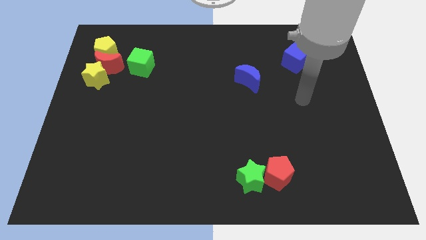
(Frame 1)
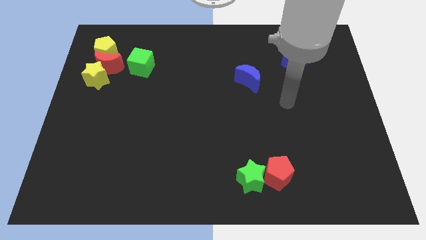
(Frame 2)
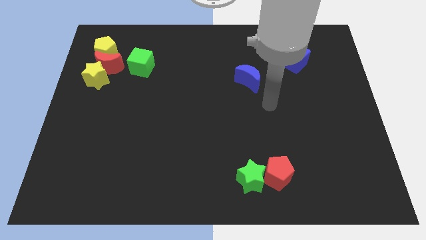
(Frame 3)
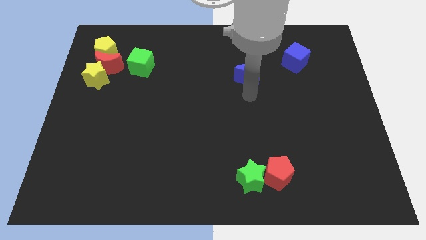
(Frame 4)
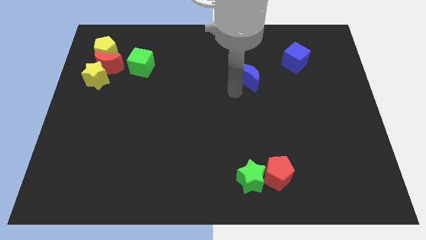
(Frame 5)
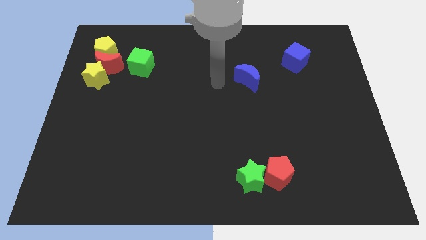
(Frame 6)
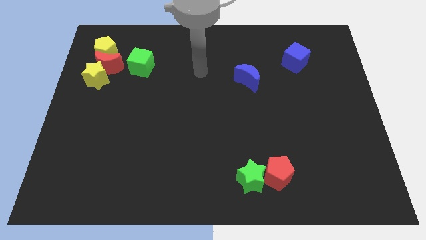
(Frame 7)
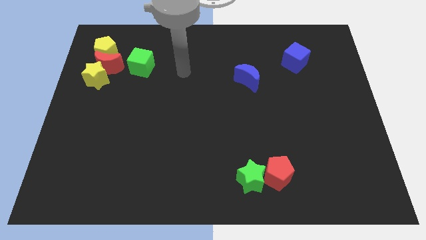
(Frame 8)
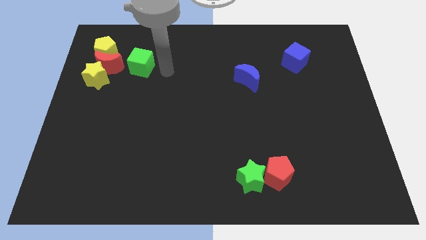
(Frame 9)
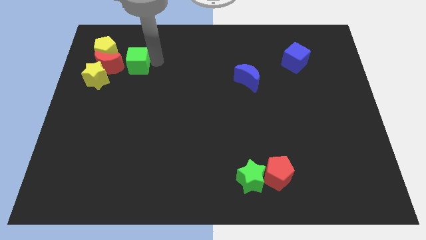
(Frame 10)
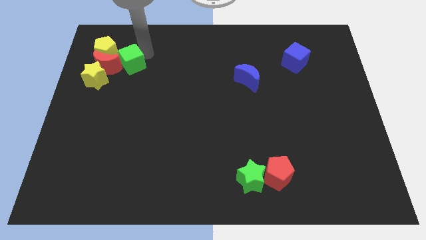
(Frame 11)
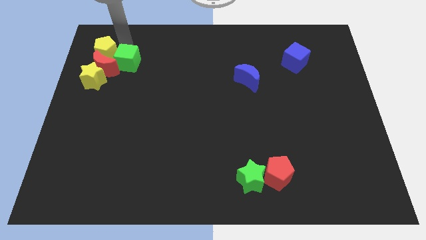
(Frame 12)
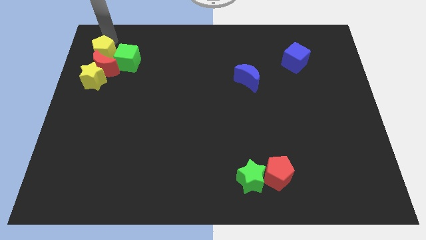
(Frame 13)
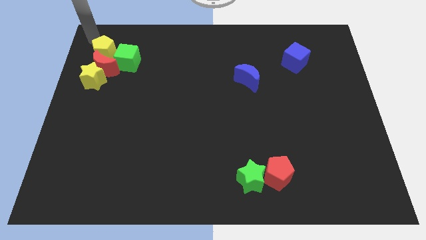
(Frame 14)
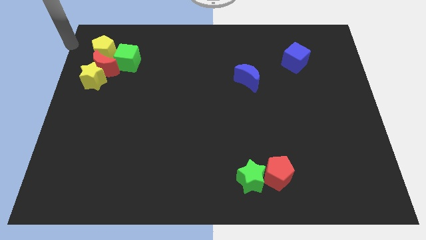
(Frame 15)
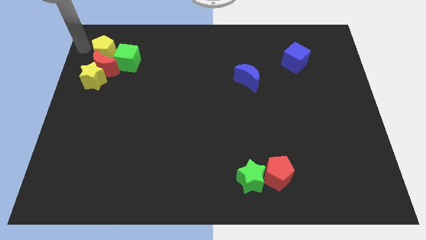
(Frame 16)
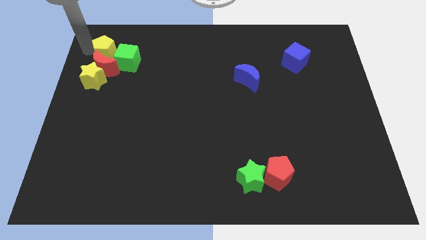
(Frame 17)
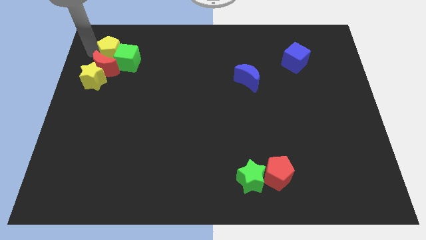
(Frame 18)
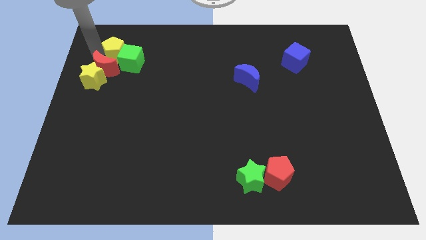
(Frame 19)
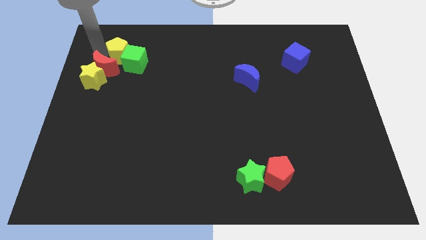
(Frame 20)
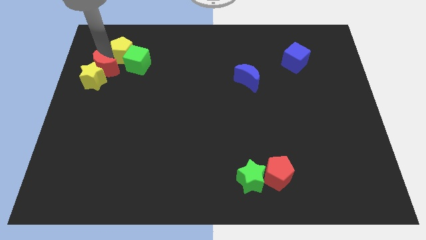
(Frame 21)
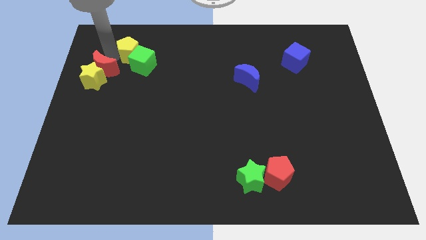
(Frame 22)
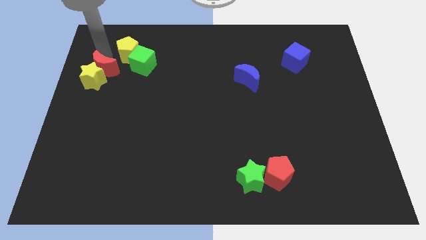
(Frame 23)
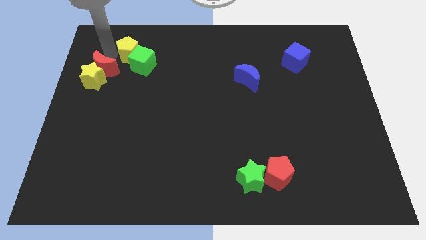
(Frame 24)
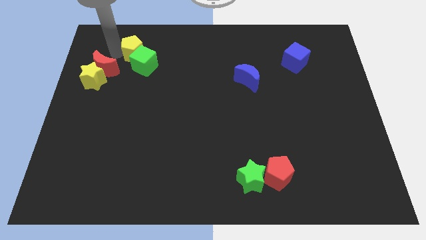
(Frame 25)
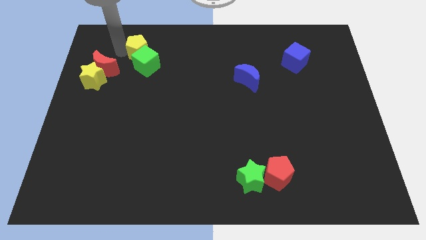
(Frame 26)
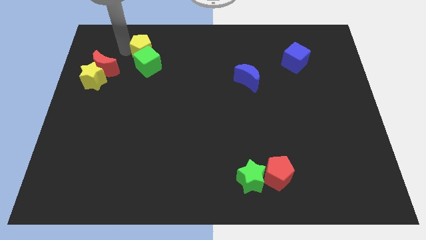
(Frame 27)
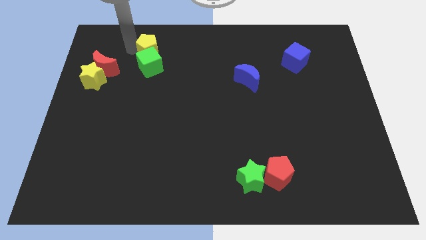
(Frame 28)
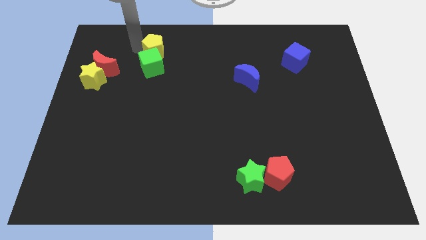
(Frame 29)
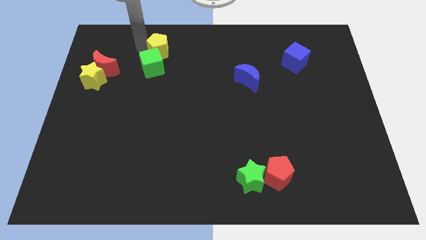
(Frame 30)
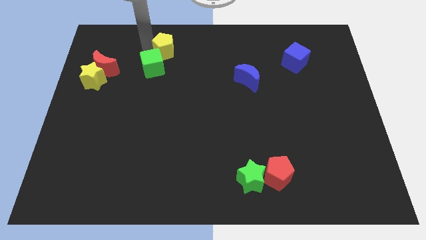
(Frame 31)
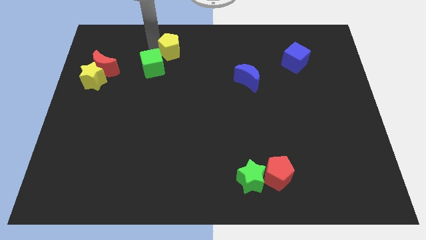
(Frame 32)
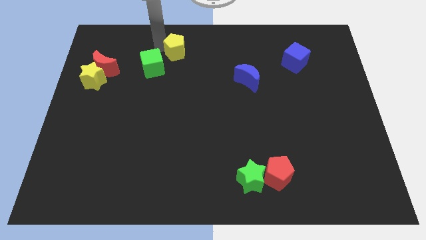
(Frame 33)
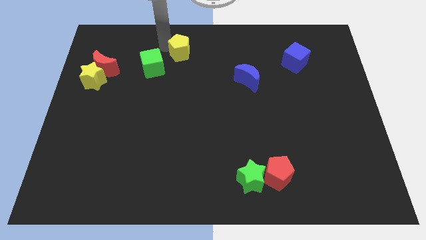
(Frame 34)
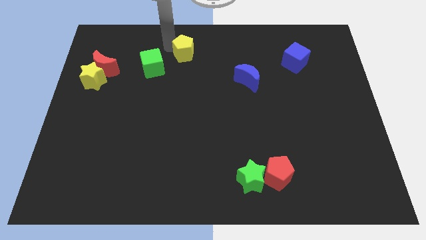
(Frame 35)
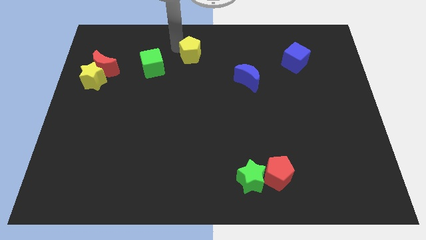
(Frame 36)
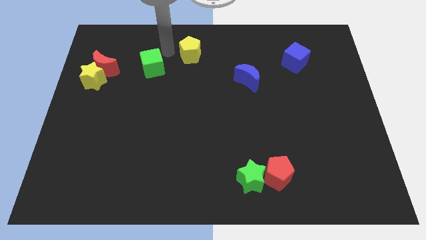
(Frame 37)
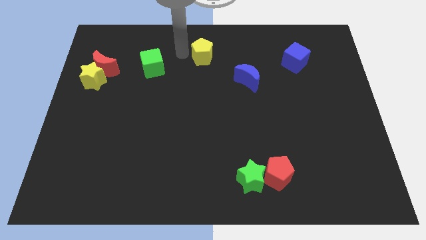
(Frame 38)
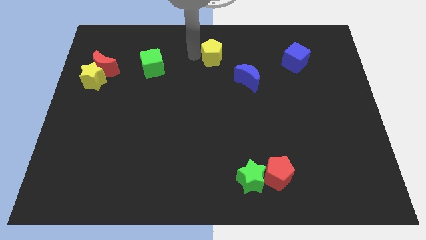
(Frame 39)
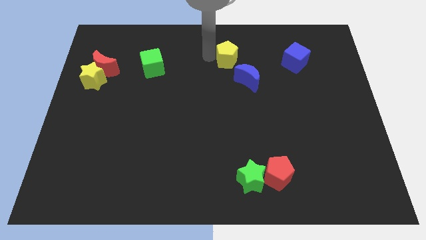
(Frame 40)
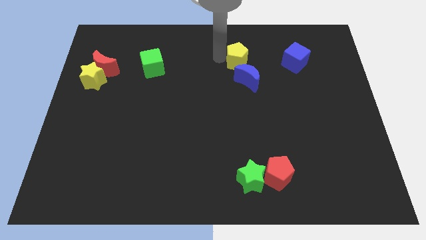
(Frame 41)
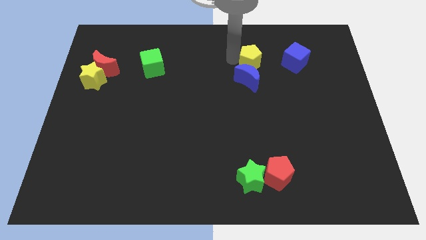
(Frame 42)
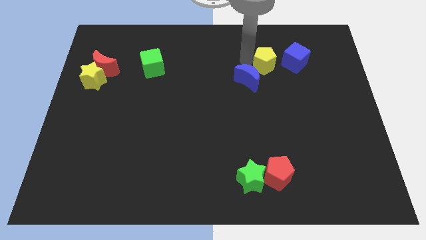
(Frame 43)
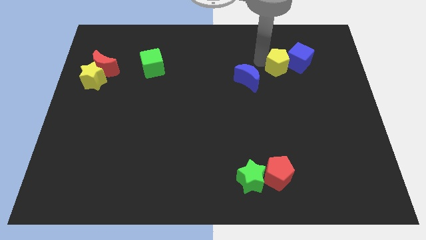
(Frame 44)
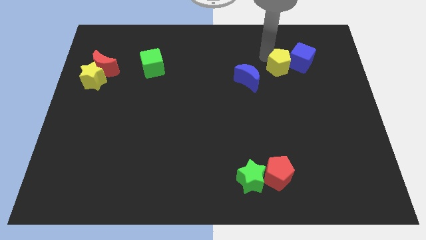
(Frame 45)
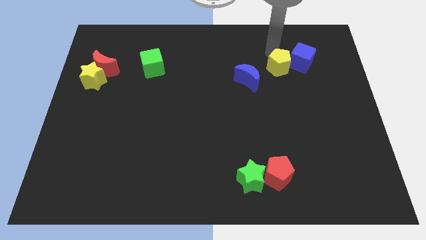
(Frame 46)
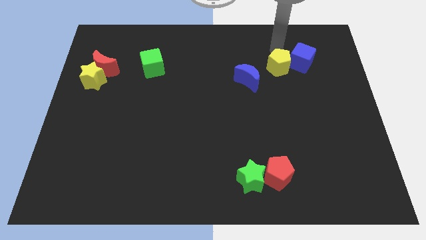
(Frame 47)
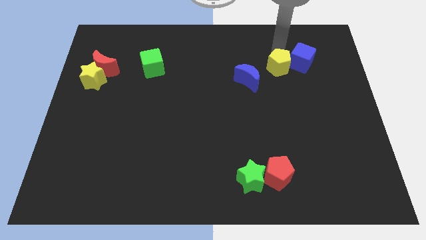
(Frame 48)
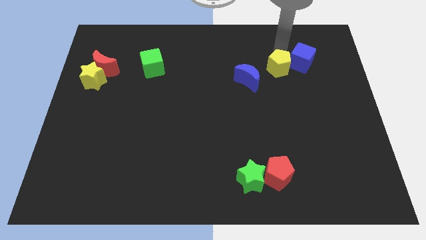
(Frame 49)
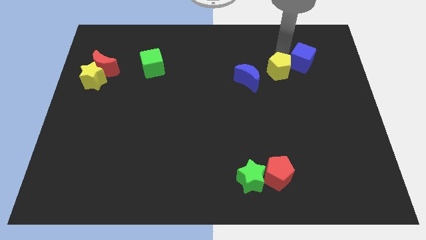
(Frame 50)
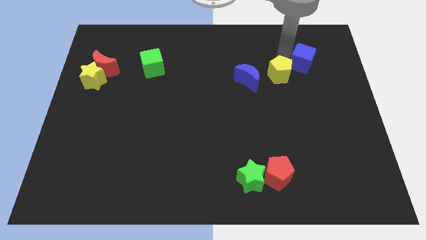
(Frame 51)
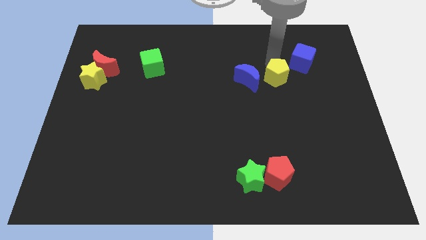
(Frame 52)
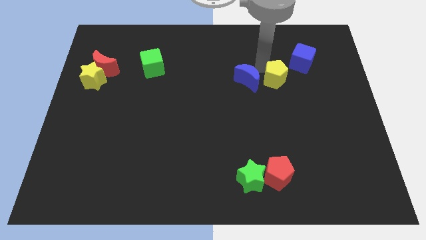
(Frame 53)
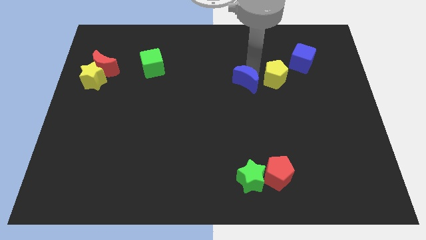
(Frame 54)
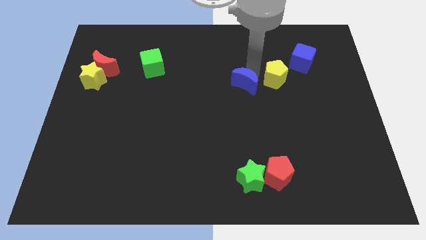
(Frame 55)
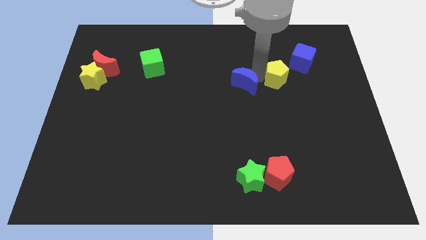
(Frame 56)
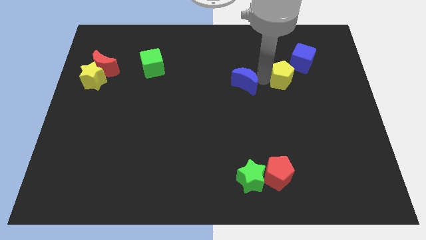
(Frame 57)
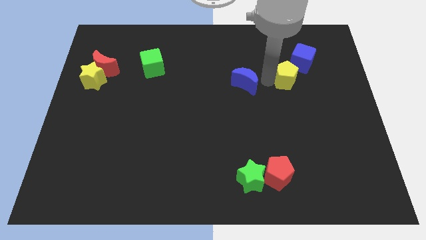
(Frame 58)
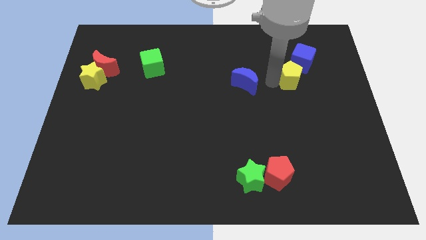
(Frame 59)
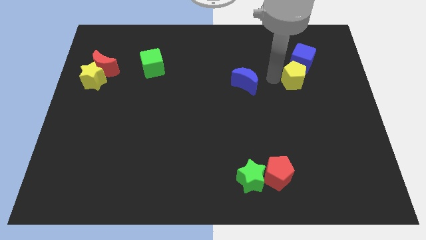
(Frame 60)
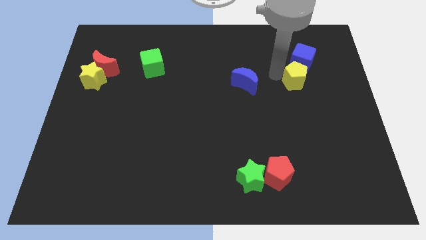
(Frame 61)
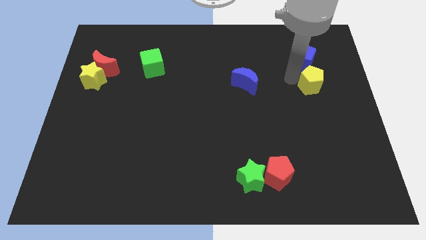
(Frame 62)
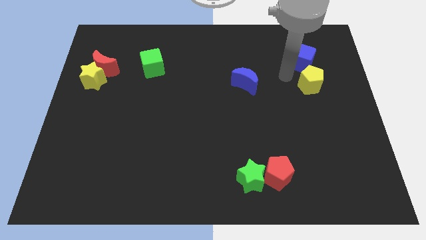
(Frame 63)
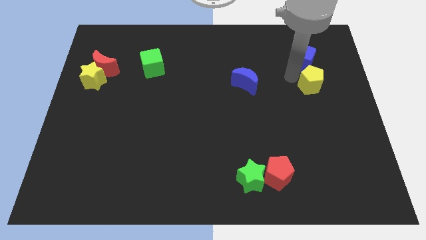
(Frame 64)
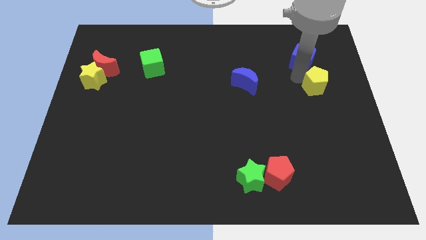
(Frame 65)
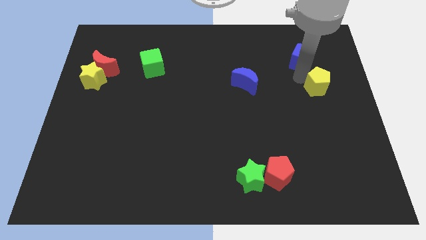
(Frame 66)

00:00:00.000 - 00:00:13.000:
push the yellow pentagon to the right side
